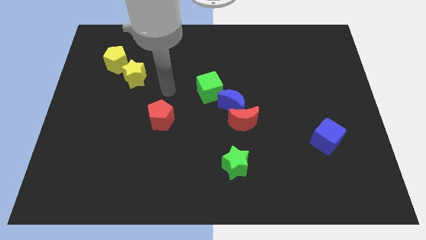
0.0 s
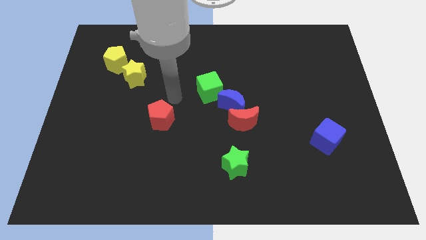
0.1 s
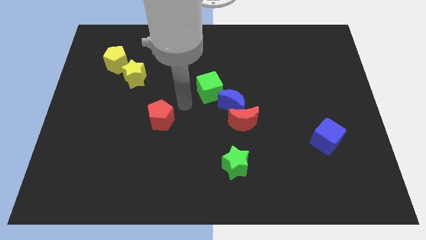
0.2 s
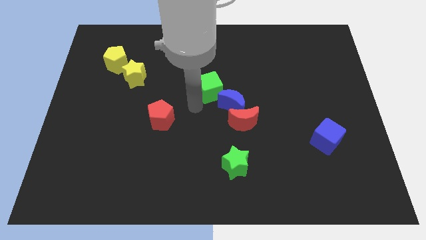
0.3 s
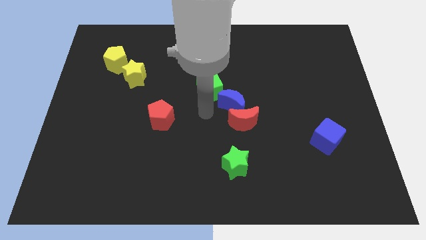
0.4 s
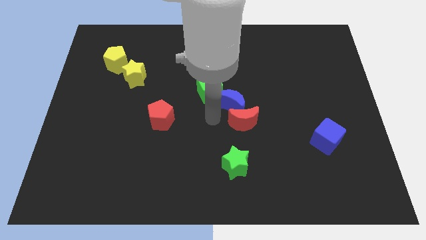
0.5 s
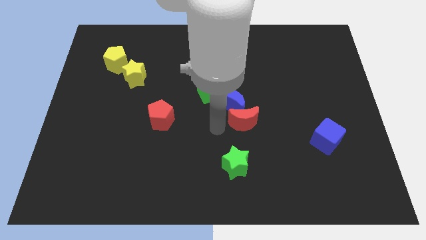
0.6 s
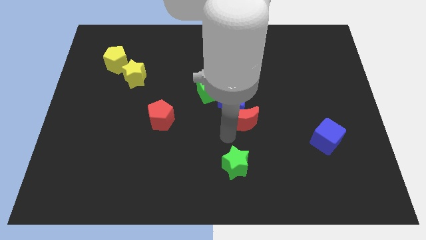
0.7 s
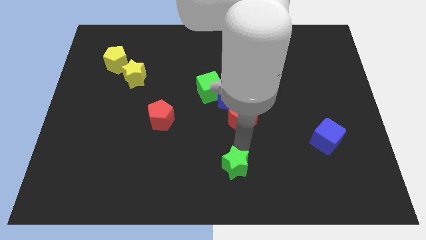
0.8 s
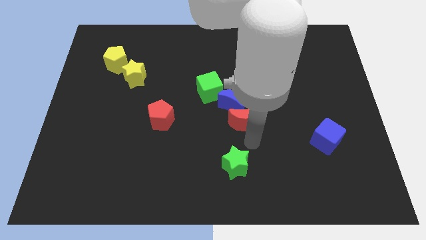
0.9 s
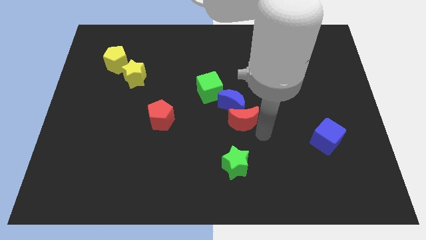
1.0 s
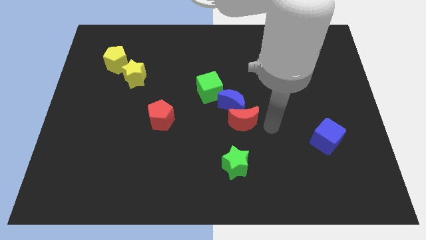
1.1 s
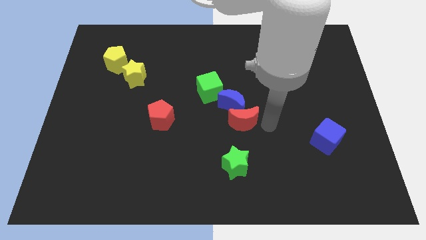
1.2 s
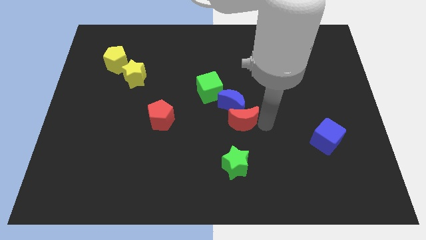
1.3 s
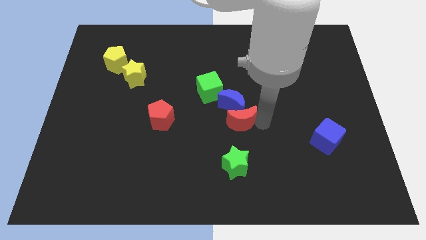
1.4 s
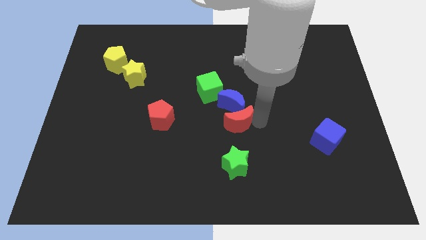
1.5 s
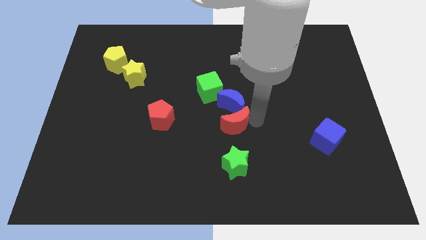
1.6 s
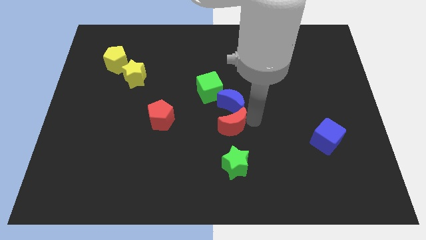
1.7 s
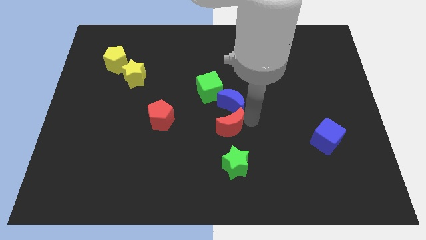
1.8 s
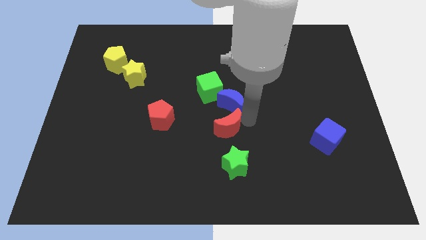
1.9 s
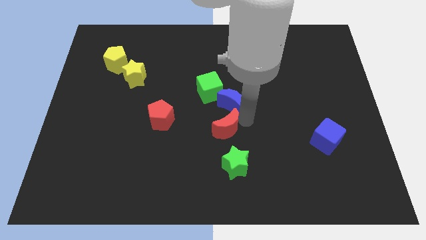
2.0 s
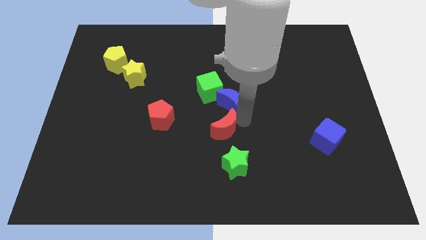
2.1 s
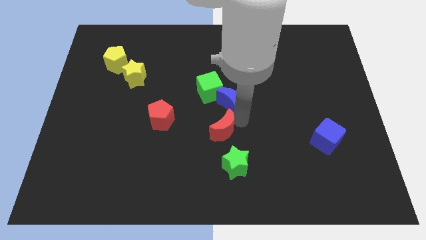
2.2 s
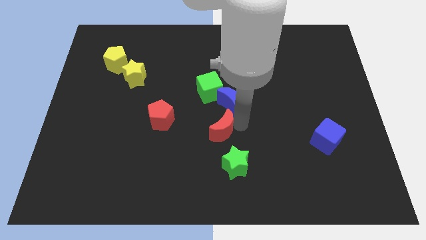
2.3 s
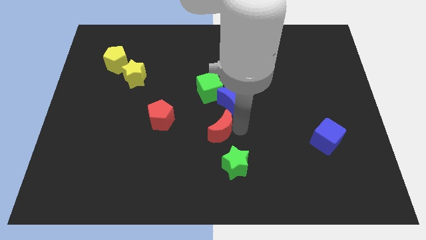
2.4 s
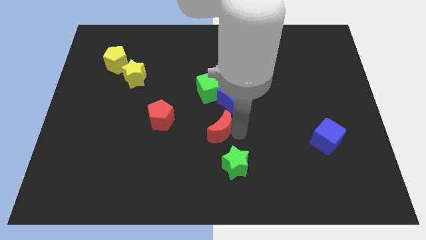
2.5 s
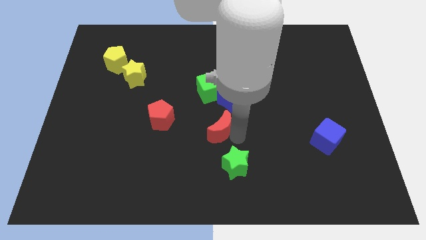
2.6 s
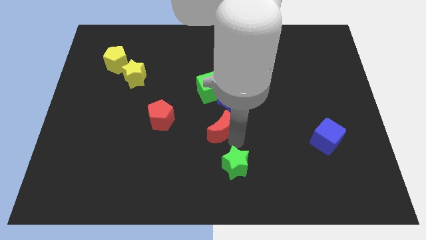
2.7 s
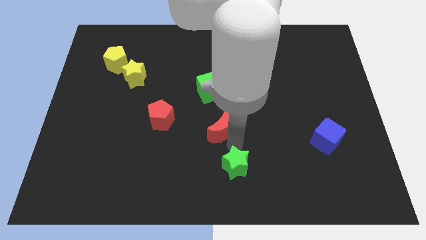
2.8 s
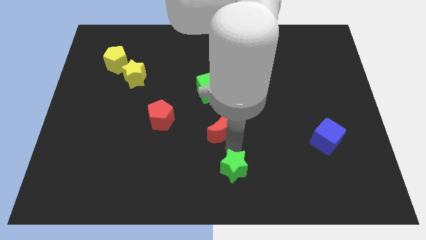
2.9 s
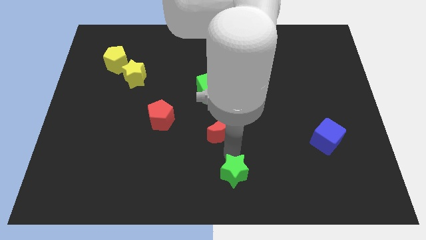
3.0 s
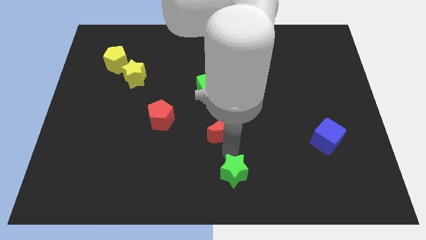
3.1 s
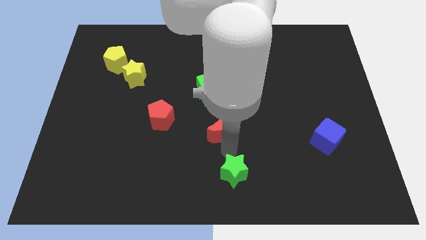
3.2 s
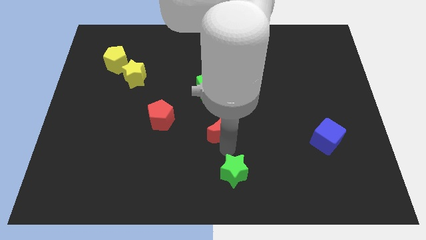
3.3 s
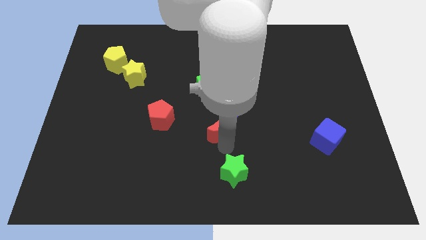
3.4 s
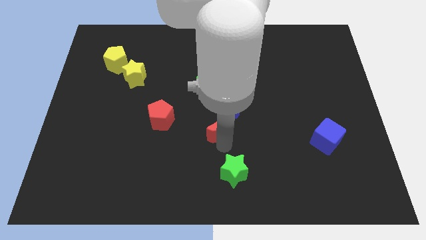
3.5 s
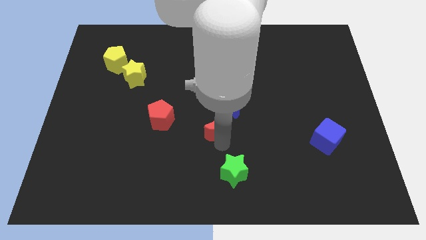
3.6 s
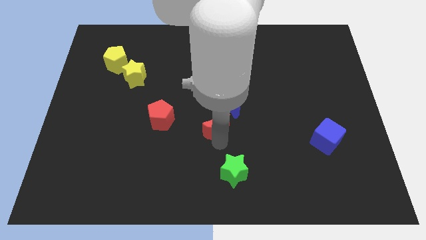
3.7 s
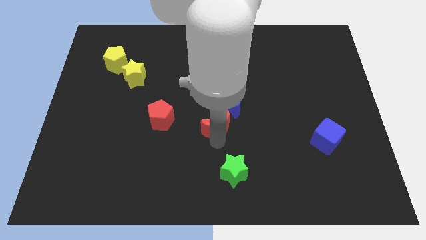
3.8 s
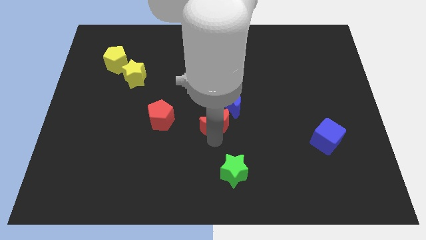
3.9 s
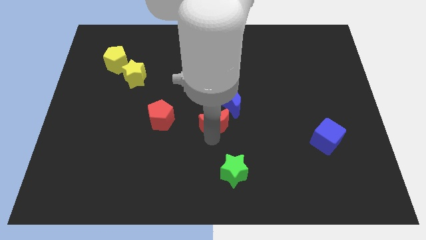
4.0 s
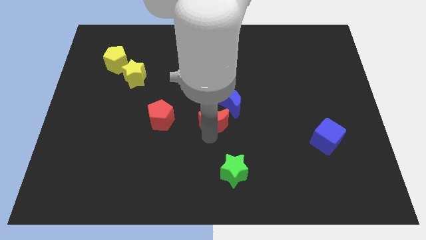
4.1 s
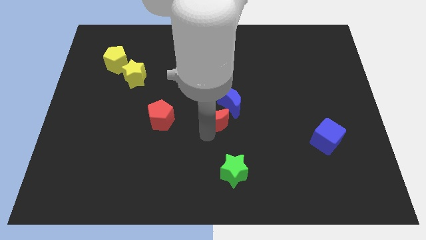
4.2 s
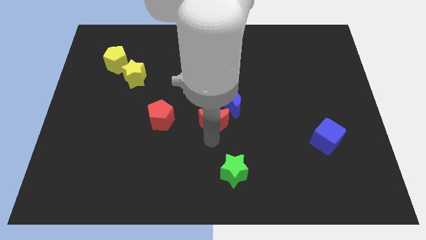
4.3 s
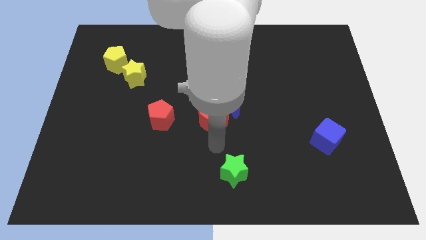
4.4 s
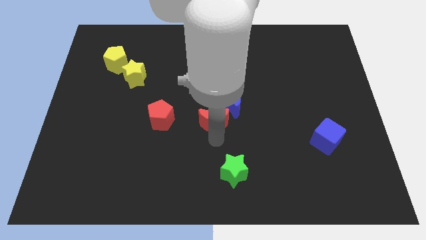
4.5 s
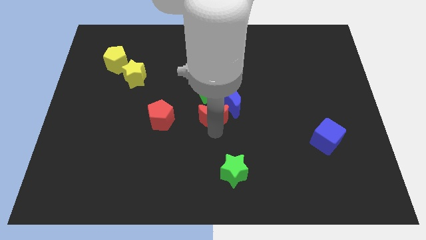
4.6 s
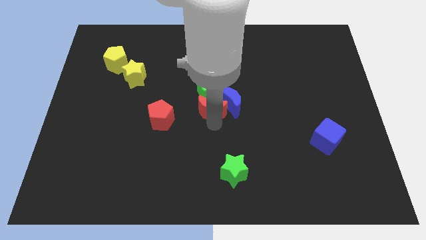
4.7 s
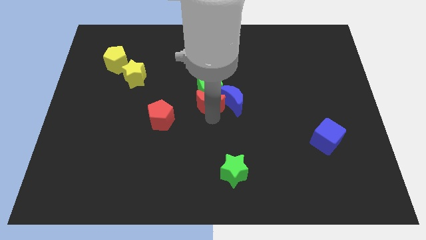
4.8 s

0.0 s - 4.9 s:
move the red moon to the green cube

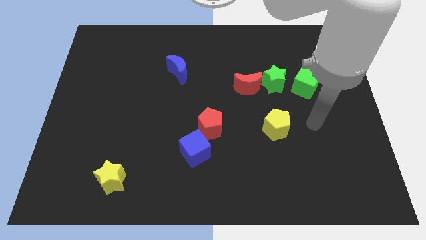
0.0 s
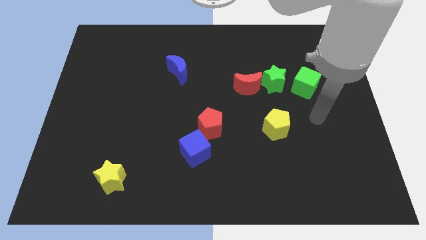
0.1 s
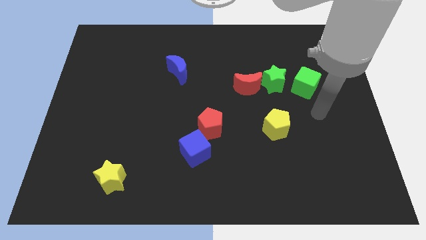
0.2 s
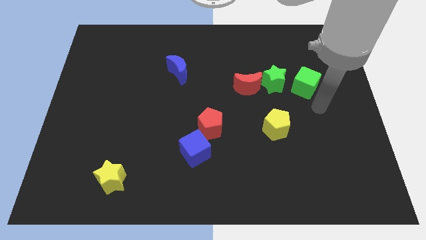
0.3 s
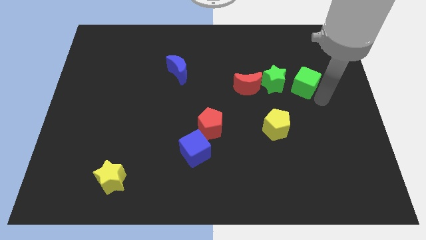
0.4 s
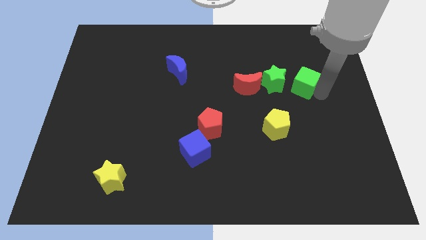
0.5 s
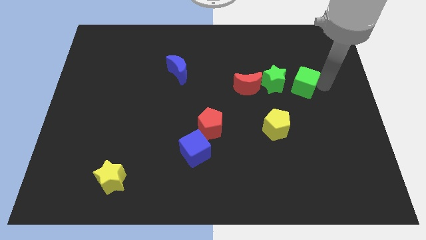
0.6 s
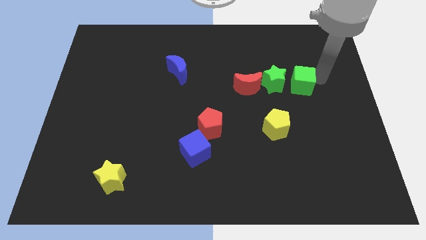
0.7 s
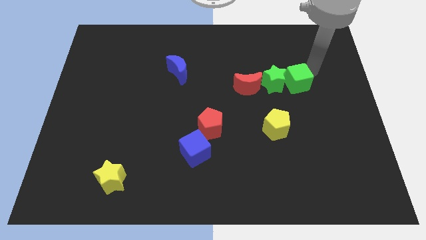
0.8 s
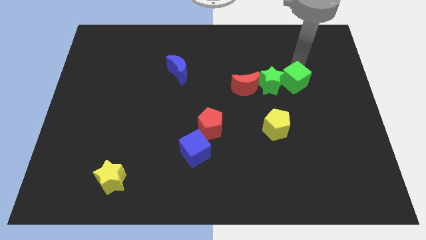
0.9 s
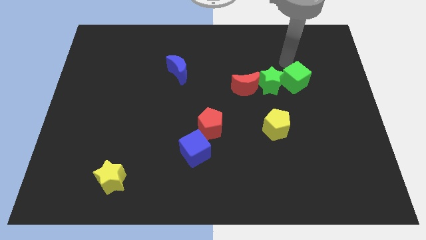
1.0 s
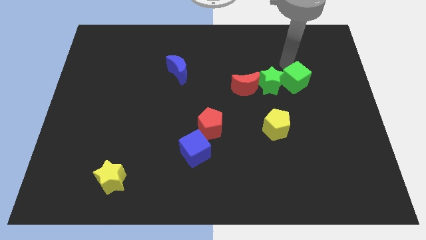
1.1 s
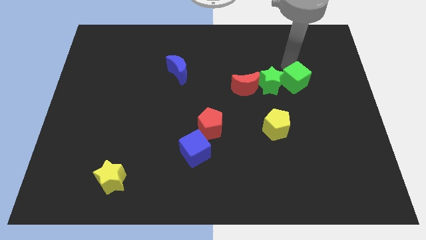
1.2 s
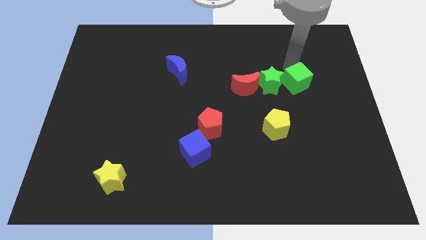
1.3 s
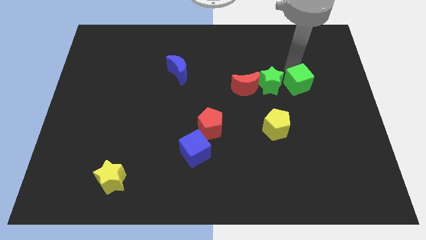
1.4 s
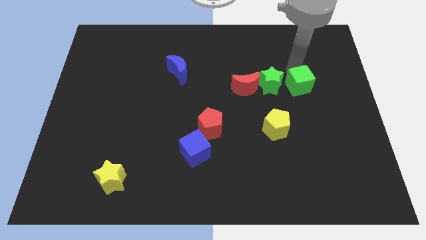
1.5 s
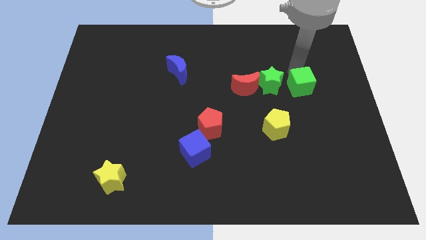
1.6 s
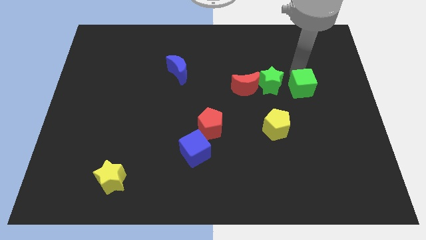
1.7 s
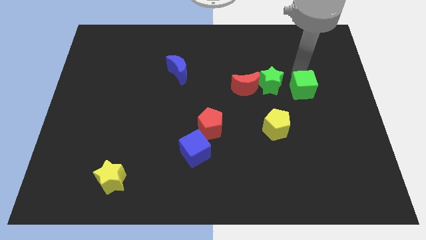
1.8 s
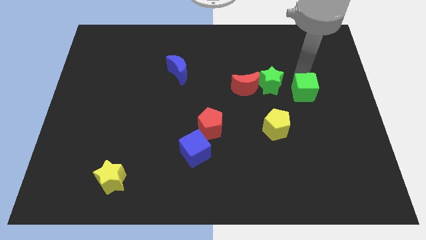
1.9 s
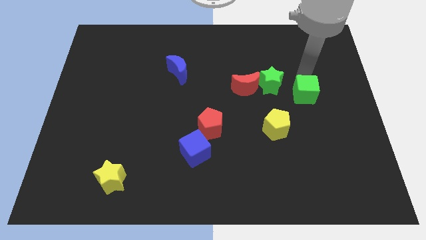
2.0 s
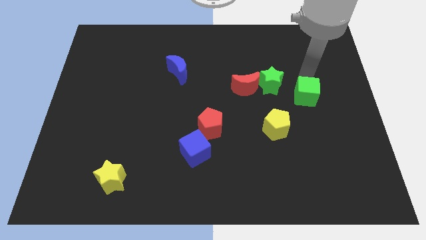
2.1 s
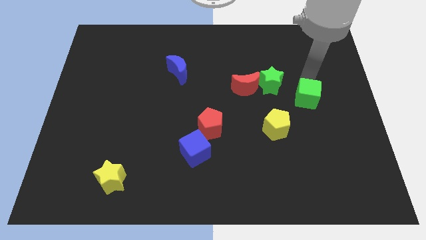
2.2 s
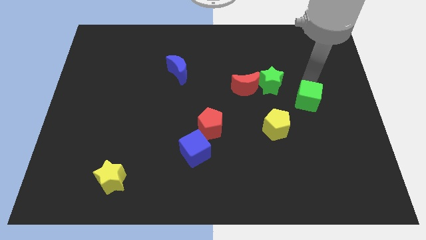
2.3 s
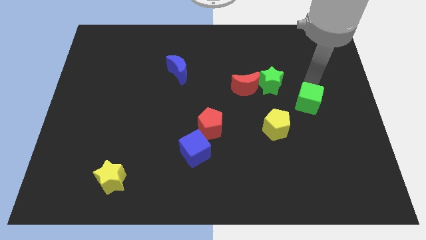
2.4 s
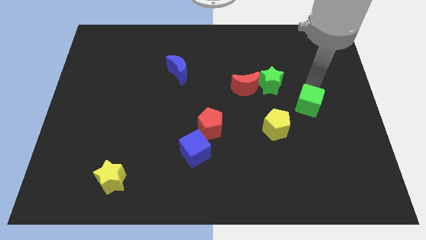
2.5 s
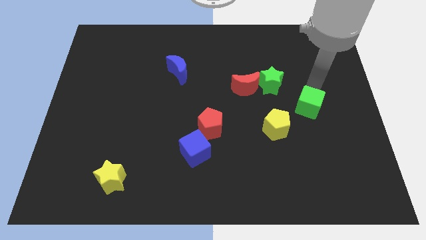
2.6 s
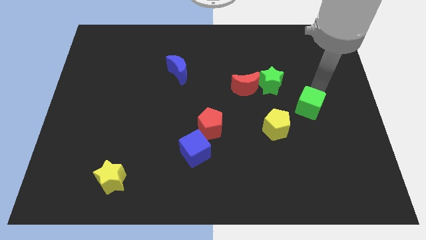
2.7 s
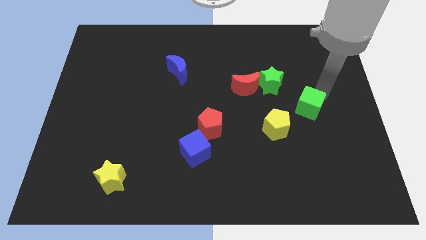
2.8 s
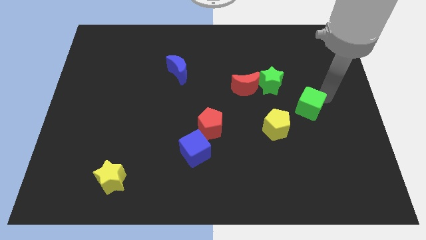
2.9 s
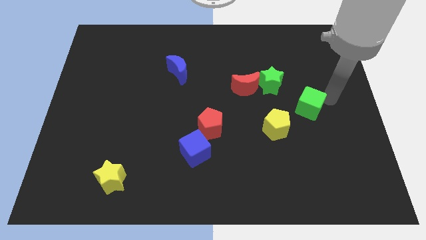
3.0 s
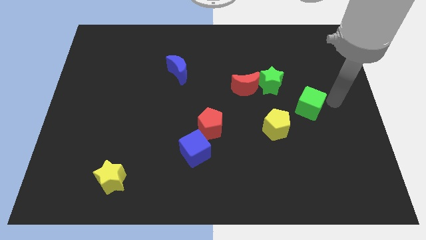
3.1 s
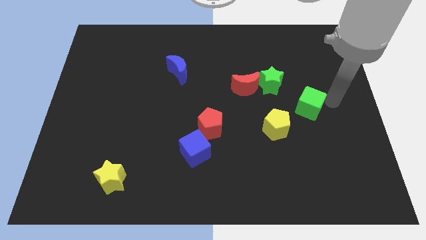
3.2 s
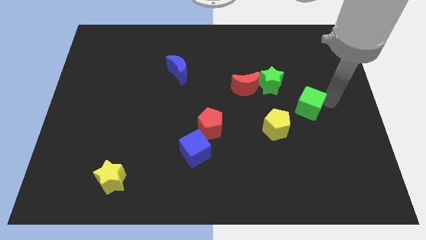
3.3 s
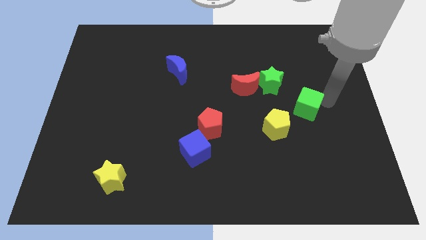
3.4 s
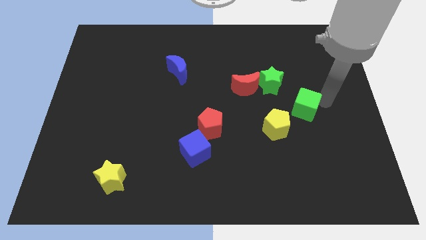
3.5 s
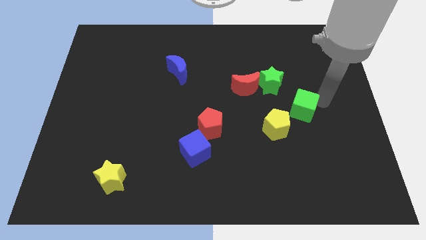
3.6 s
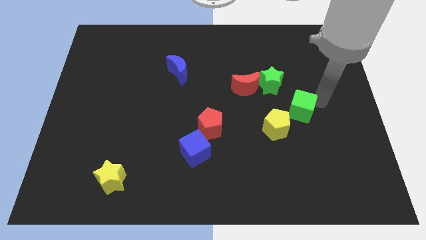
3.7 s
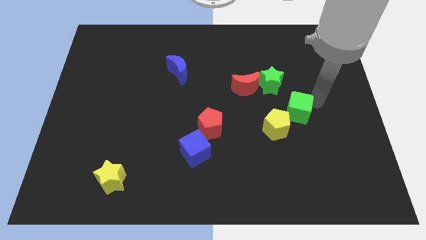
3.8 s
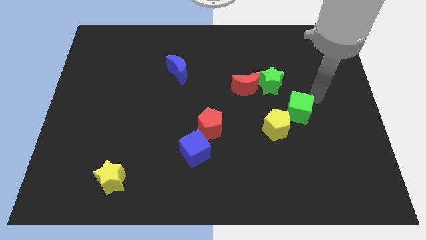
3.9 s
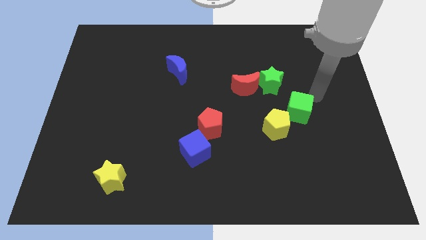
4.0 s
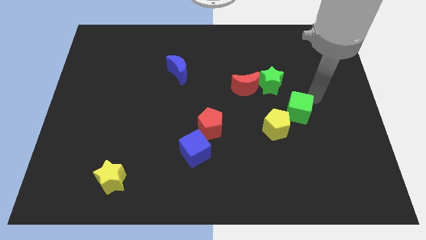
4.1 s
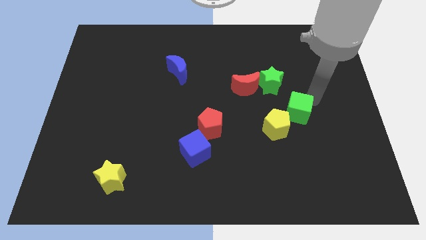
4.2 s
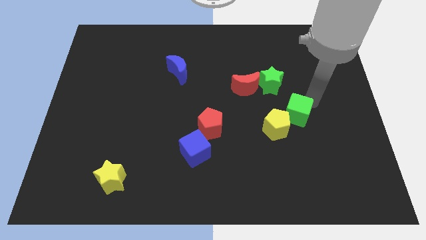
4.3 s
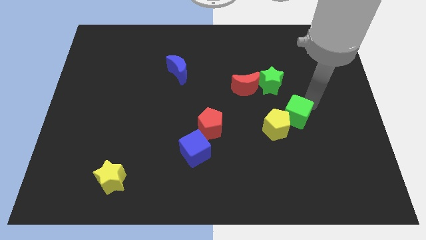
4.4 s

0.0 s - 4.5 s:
put the green cube next to the yellow pentagon
